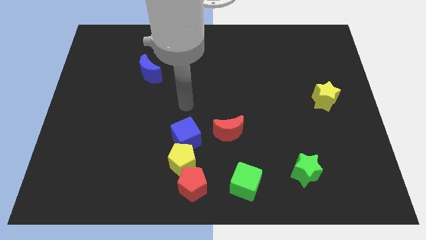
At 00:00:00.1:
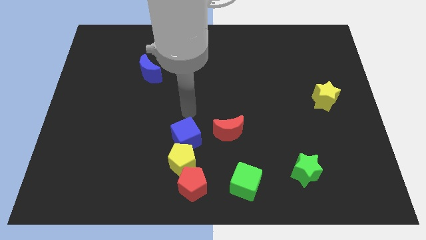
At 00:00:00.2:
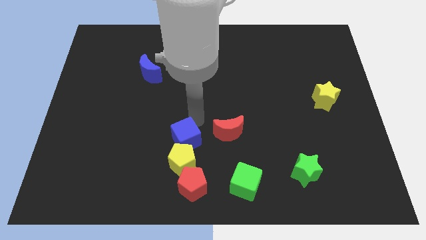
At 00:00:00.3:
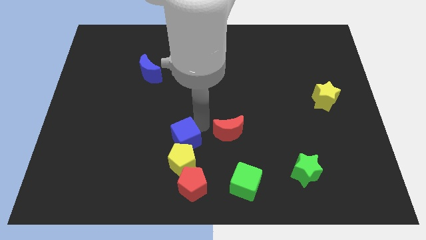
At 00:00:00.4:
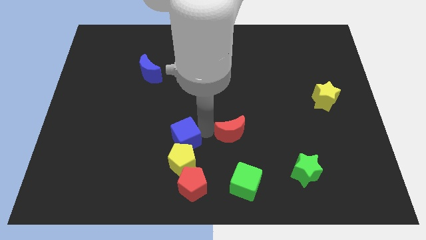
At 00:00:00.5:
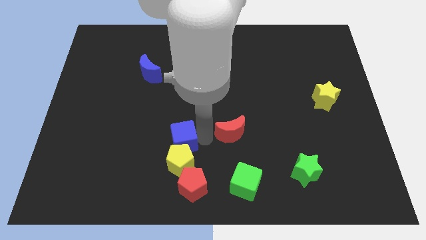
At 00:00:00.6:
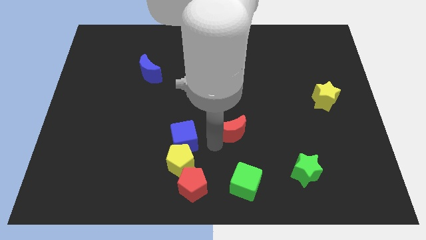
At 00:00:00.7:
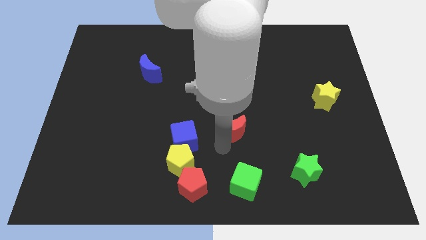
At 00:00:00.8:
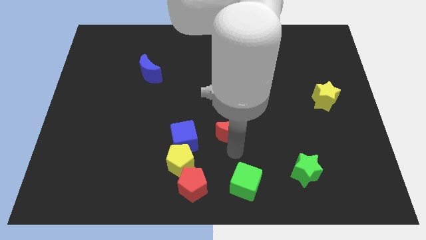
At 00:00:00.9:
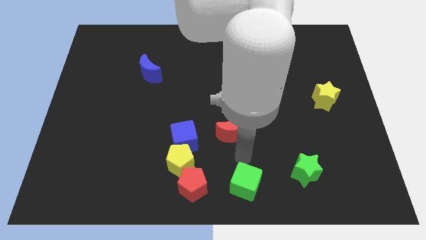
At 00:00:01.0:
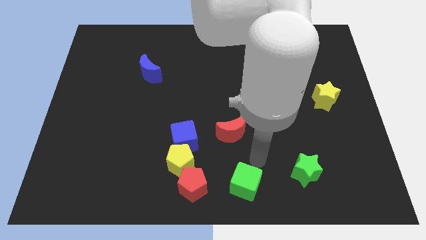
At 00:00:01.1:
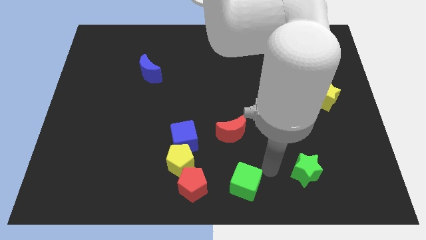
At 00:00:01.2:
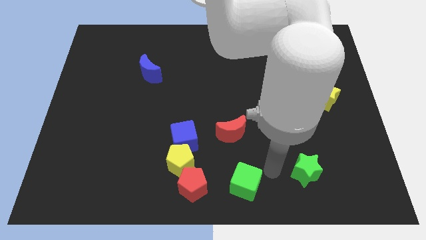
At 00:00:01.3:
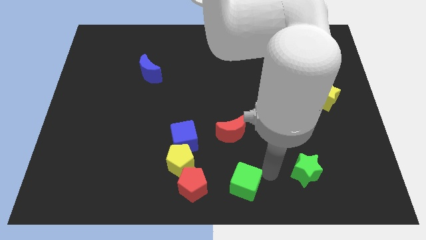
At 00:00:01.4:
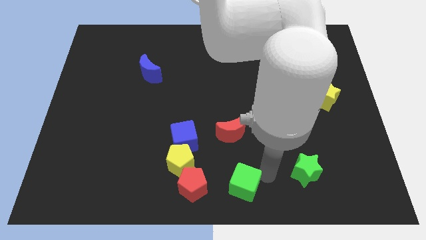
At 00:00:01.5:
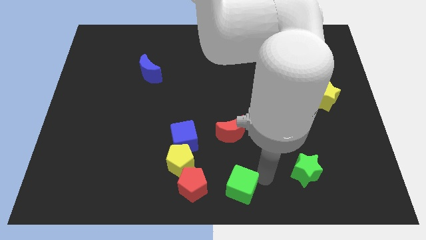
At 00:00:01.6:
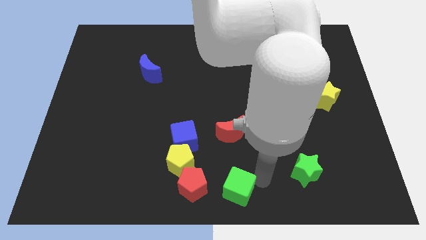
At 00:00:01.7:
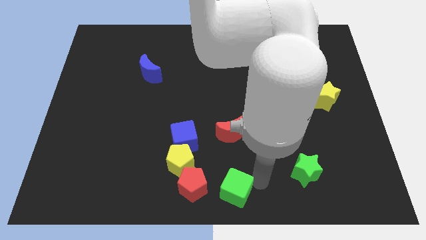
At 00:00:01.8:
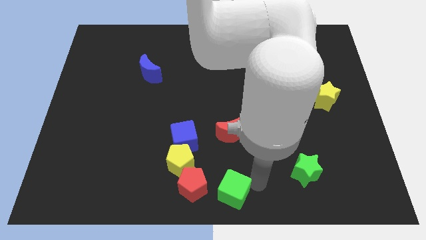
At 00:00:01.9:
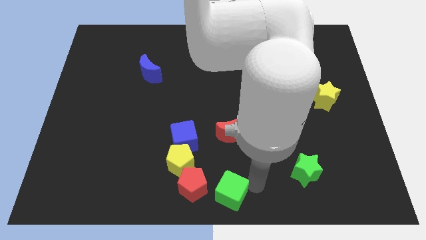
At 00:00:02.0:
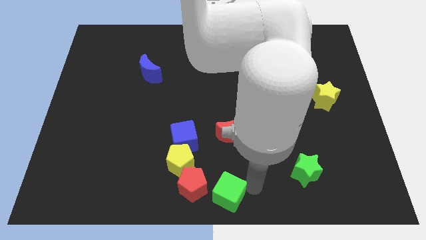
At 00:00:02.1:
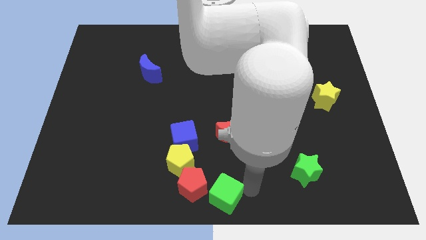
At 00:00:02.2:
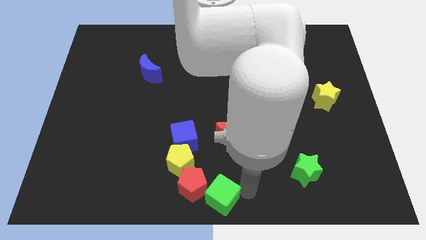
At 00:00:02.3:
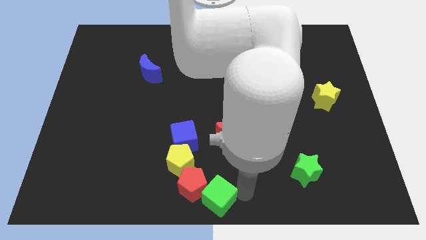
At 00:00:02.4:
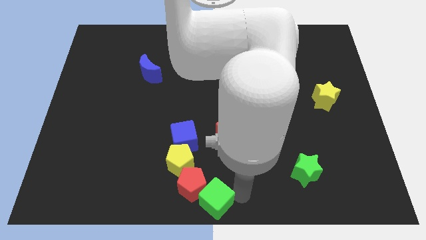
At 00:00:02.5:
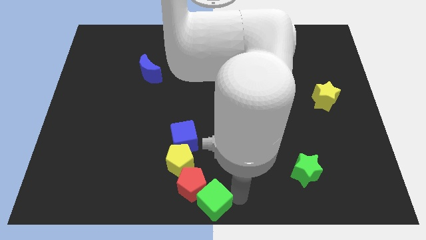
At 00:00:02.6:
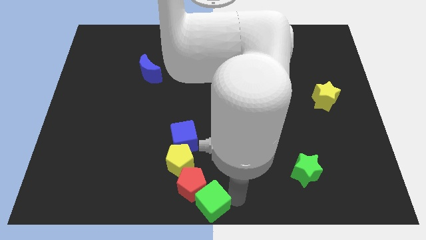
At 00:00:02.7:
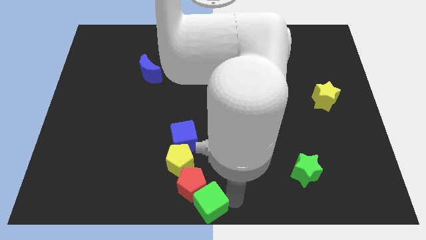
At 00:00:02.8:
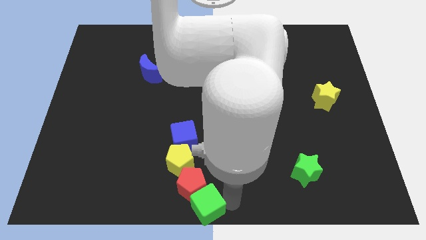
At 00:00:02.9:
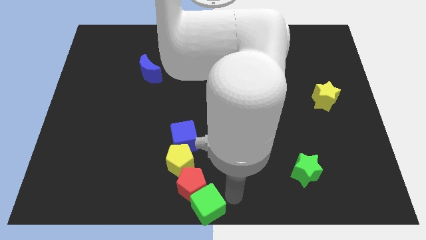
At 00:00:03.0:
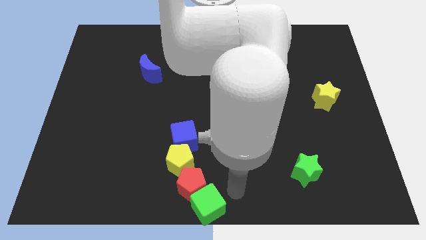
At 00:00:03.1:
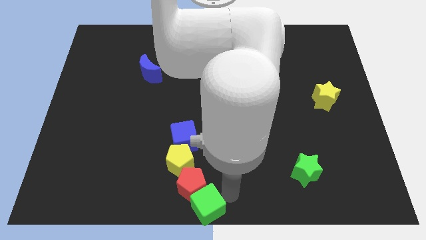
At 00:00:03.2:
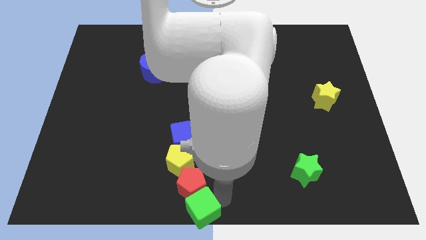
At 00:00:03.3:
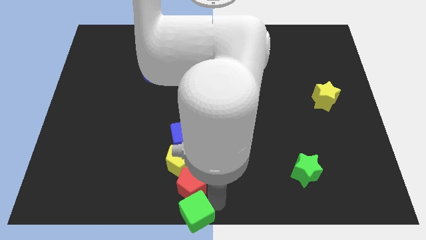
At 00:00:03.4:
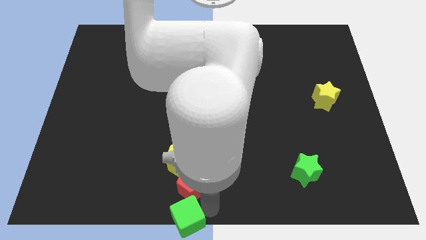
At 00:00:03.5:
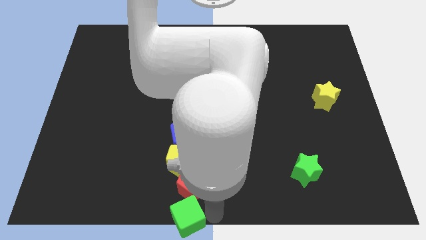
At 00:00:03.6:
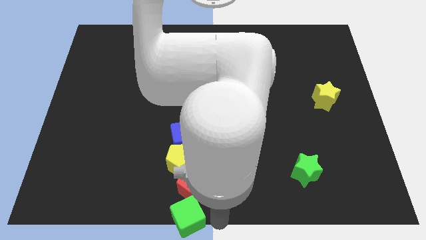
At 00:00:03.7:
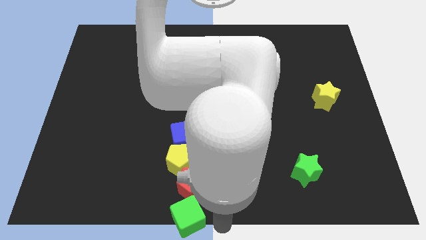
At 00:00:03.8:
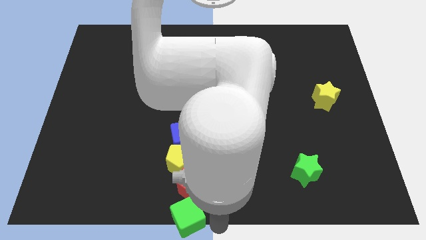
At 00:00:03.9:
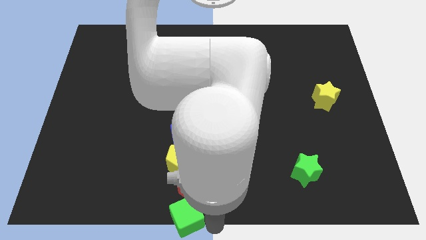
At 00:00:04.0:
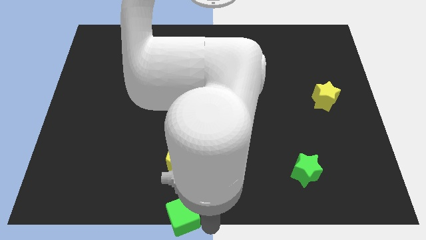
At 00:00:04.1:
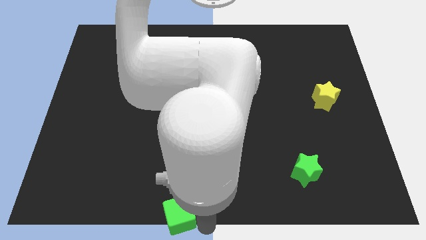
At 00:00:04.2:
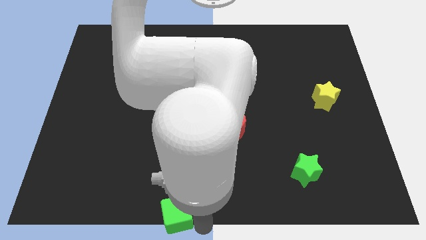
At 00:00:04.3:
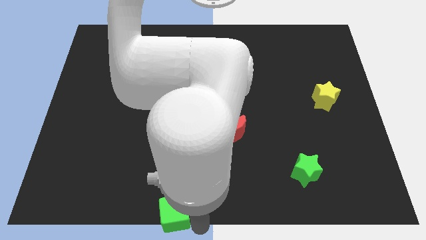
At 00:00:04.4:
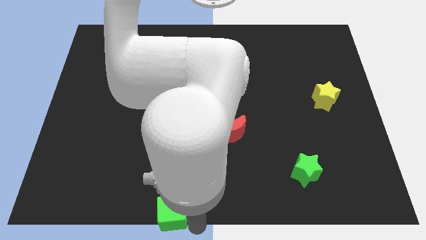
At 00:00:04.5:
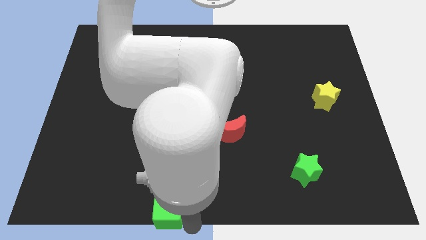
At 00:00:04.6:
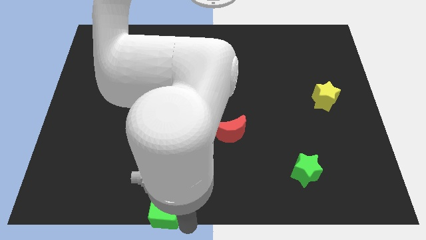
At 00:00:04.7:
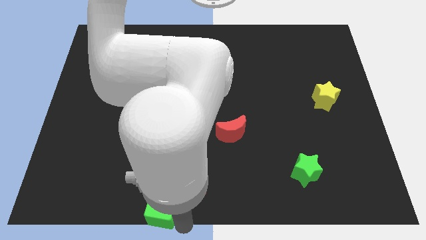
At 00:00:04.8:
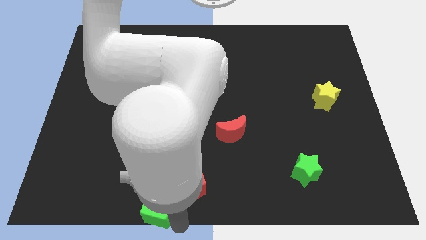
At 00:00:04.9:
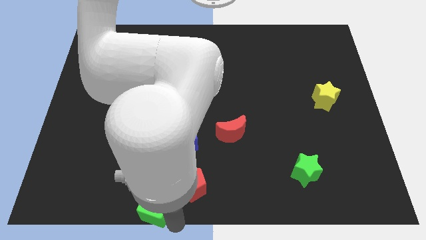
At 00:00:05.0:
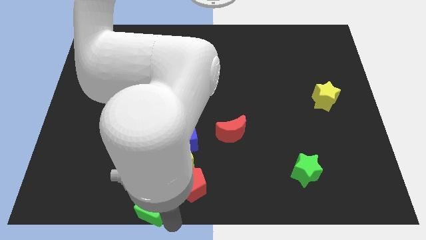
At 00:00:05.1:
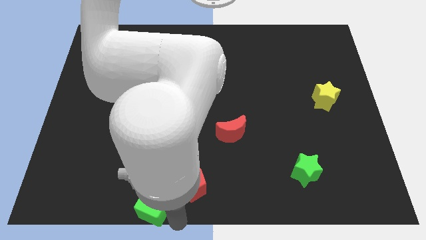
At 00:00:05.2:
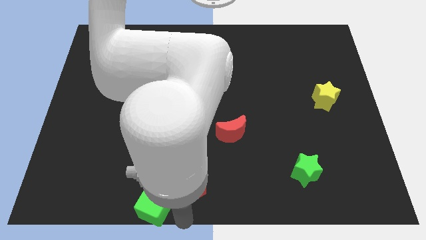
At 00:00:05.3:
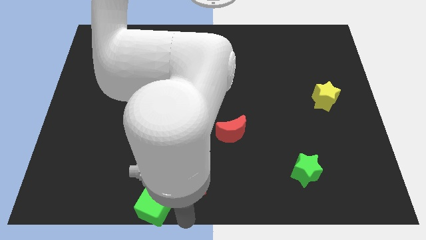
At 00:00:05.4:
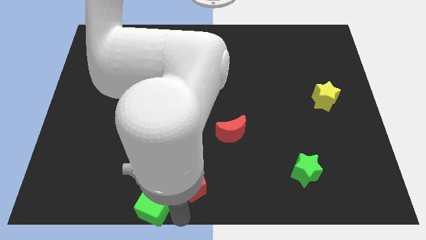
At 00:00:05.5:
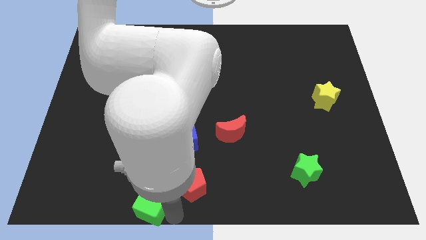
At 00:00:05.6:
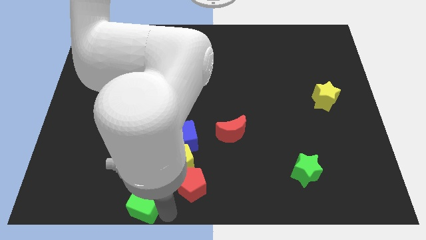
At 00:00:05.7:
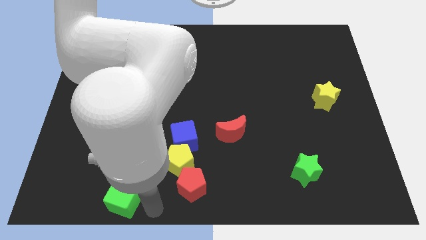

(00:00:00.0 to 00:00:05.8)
slide the green cube to the left

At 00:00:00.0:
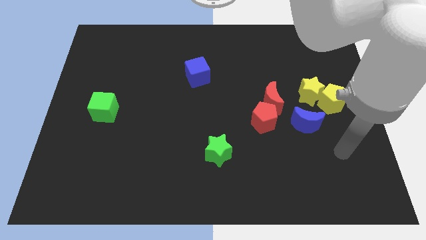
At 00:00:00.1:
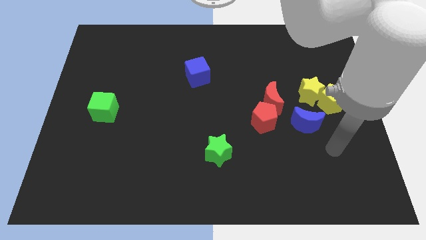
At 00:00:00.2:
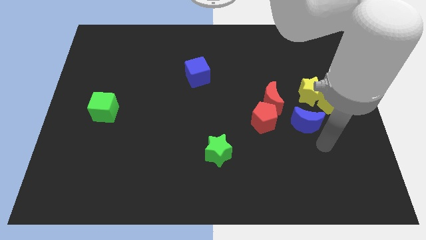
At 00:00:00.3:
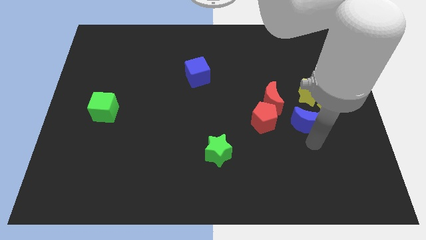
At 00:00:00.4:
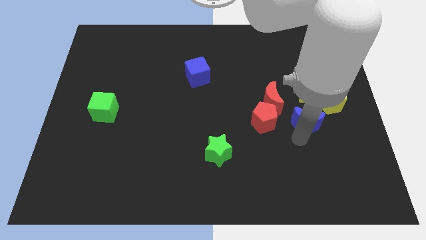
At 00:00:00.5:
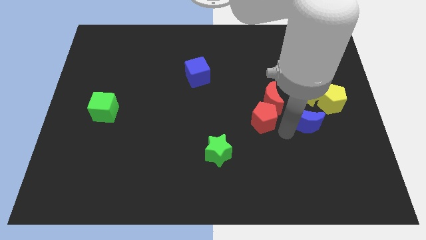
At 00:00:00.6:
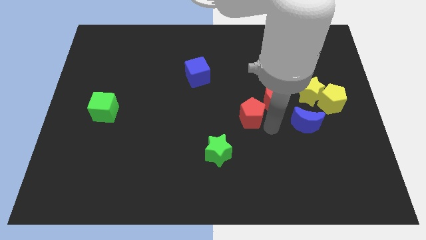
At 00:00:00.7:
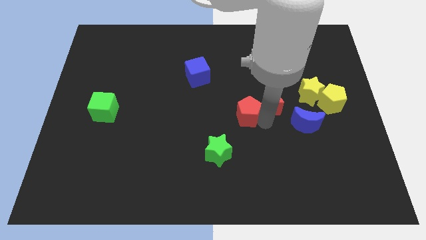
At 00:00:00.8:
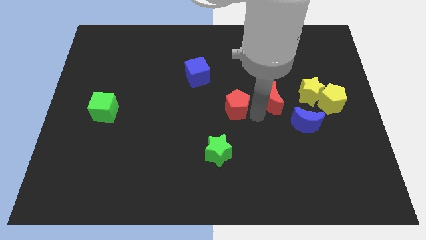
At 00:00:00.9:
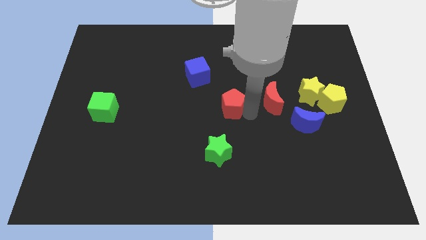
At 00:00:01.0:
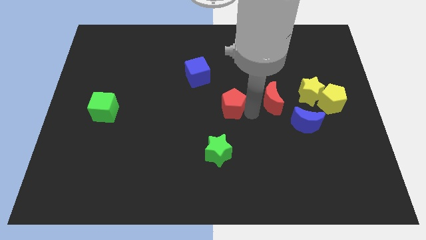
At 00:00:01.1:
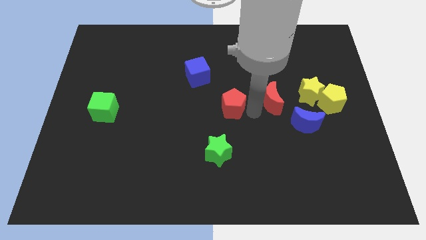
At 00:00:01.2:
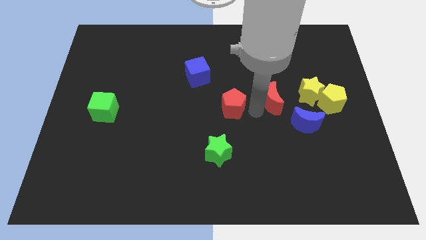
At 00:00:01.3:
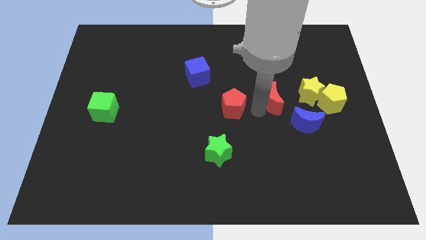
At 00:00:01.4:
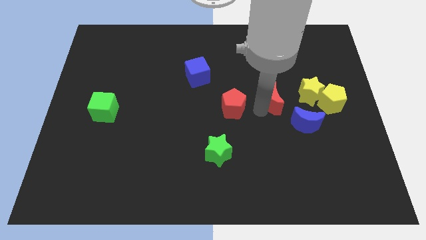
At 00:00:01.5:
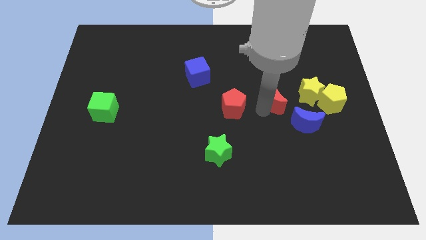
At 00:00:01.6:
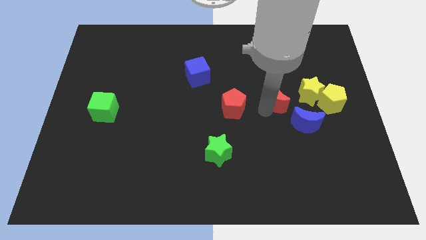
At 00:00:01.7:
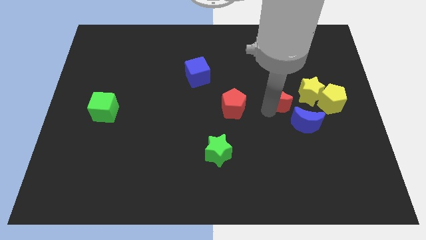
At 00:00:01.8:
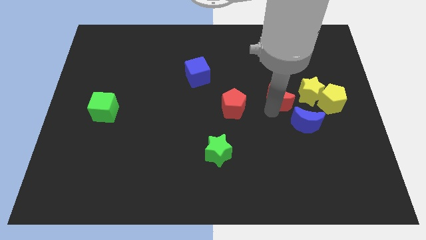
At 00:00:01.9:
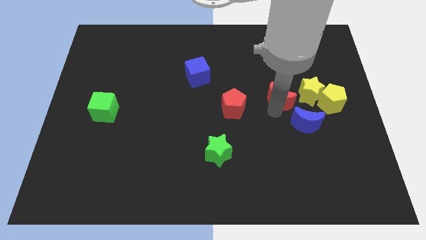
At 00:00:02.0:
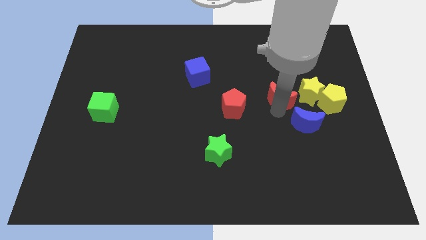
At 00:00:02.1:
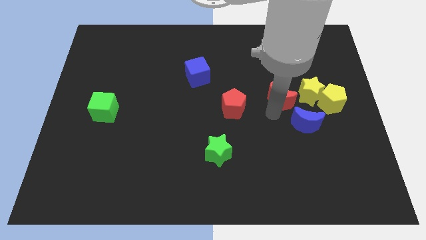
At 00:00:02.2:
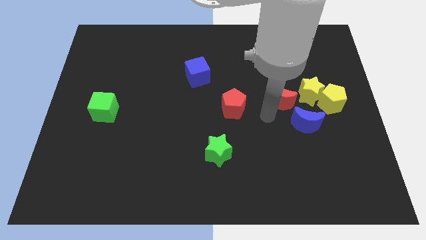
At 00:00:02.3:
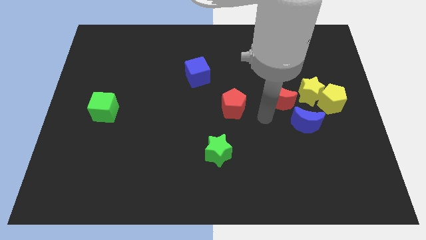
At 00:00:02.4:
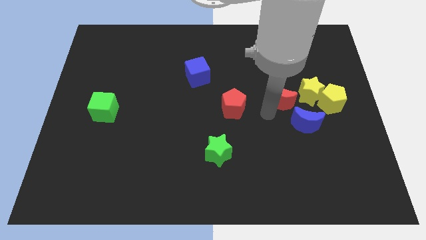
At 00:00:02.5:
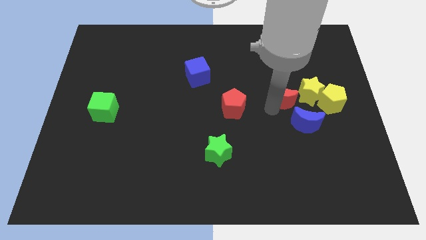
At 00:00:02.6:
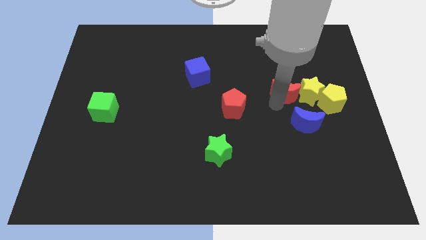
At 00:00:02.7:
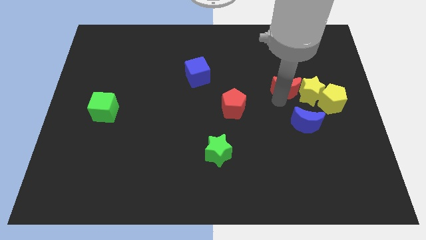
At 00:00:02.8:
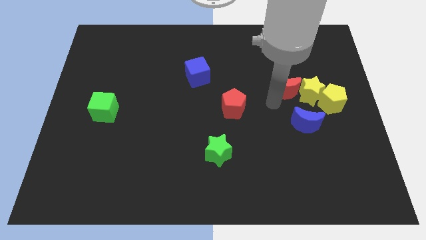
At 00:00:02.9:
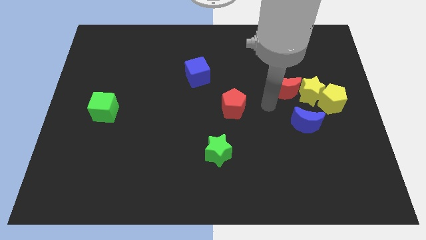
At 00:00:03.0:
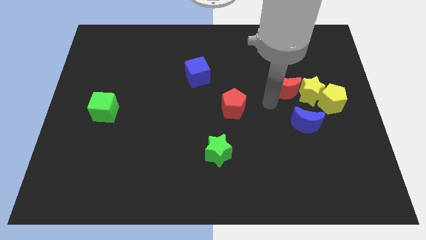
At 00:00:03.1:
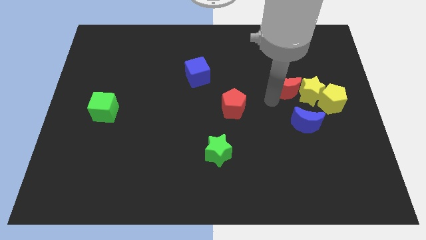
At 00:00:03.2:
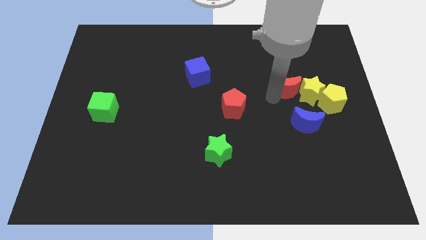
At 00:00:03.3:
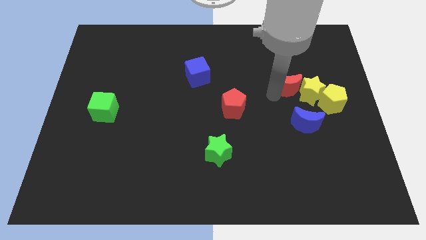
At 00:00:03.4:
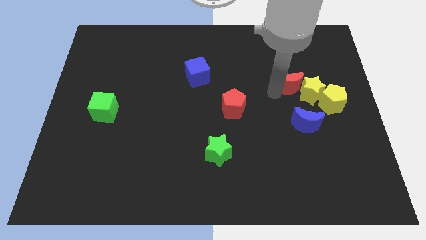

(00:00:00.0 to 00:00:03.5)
move the red moon upwards and right diagonally a bit
